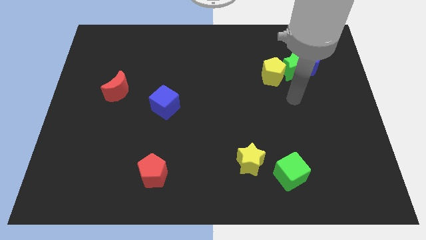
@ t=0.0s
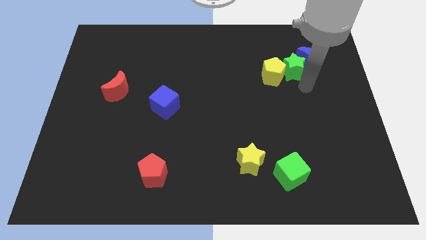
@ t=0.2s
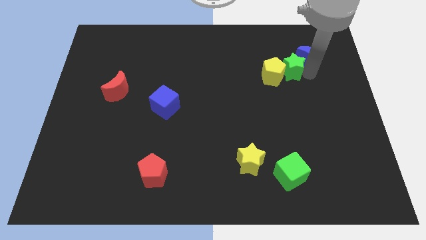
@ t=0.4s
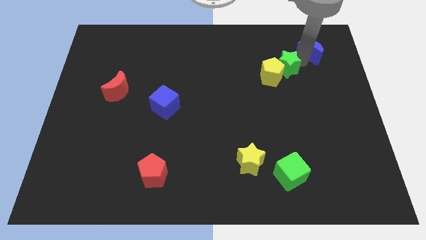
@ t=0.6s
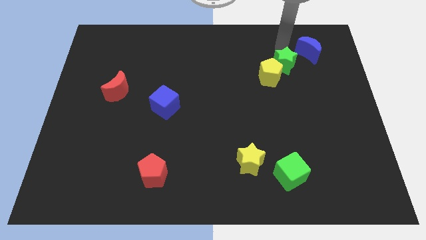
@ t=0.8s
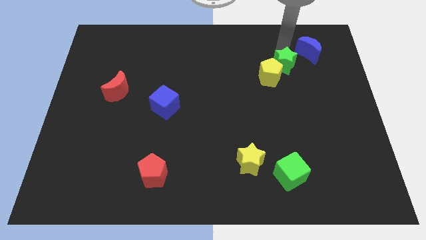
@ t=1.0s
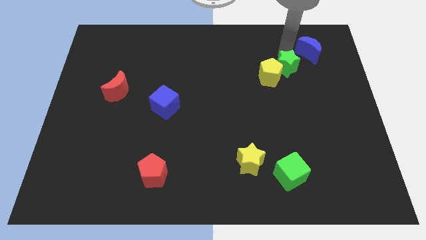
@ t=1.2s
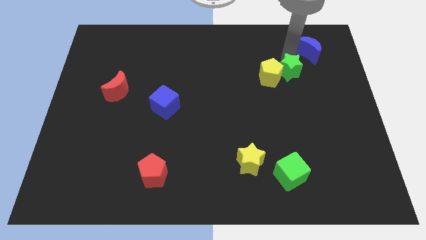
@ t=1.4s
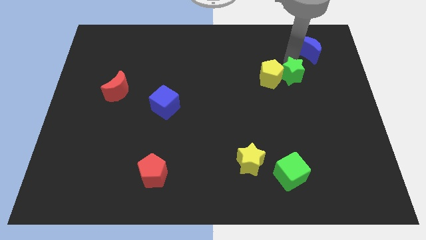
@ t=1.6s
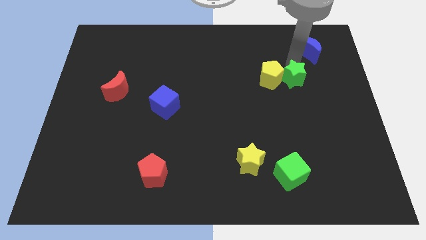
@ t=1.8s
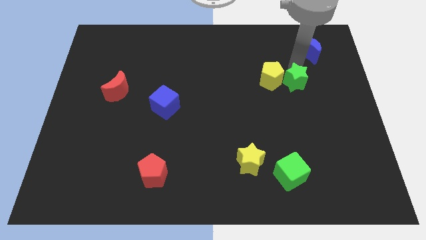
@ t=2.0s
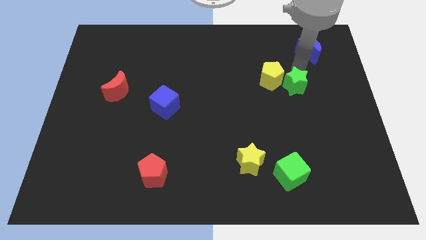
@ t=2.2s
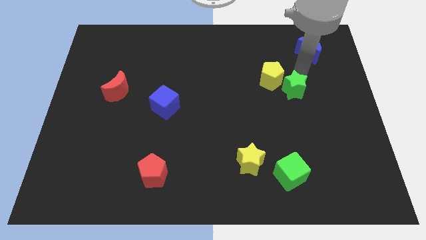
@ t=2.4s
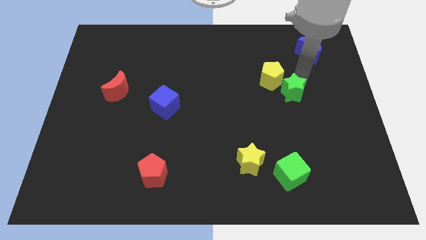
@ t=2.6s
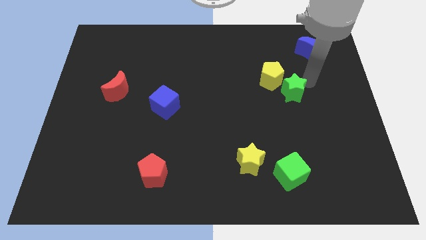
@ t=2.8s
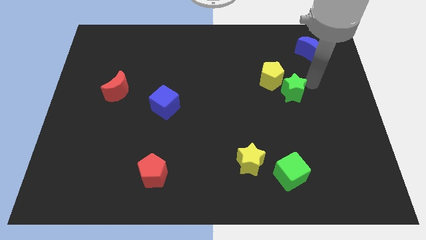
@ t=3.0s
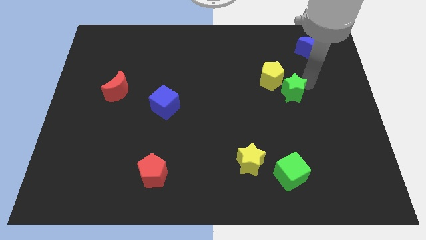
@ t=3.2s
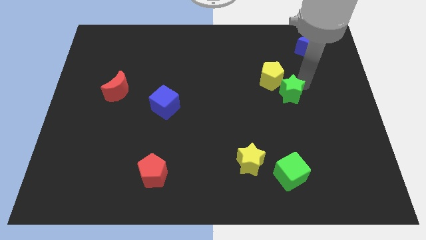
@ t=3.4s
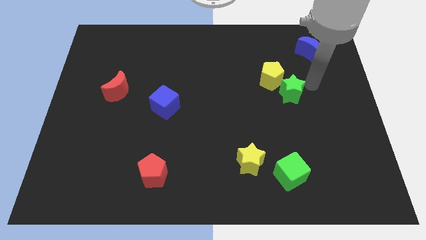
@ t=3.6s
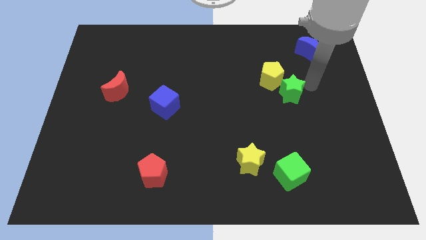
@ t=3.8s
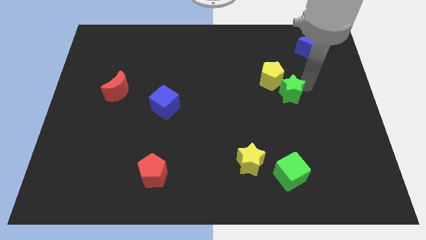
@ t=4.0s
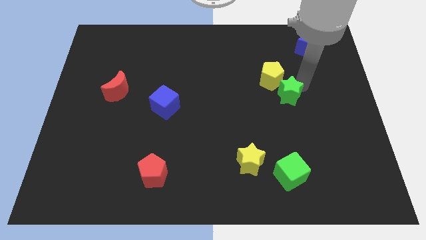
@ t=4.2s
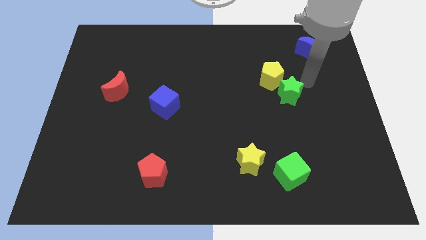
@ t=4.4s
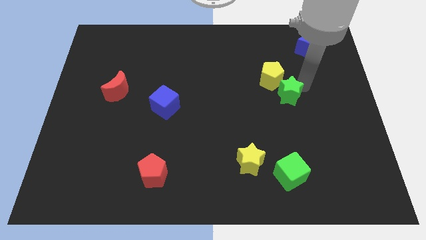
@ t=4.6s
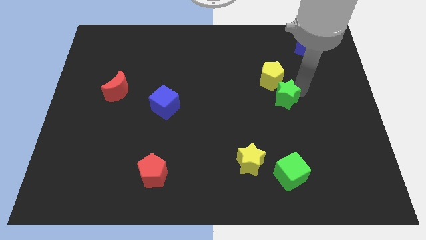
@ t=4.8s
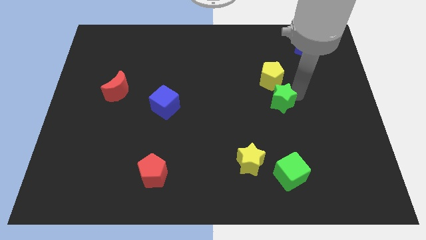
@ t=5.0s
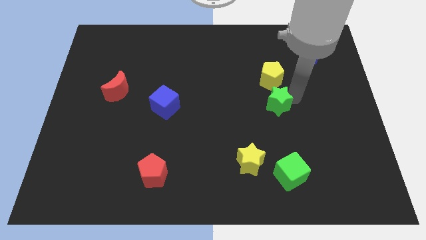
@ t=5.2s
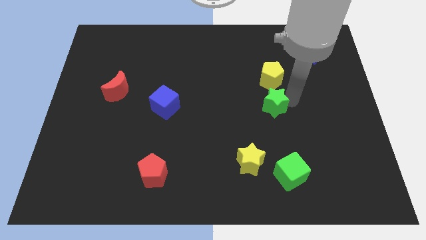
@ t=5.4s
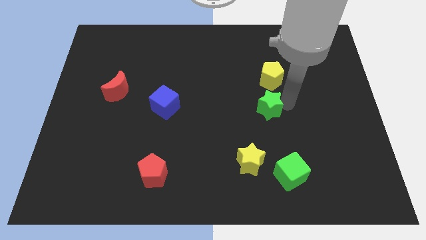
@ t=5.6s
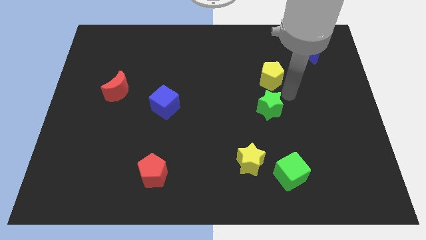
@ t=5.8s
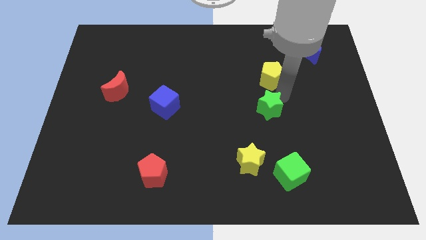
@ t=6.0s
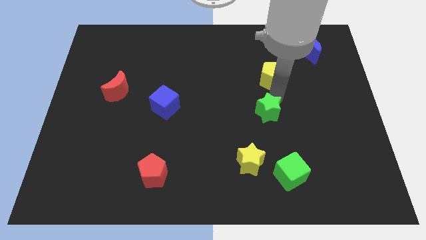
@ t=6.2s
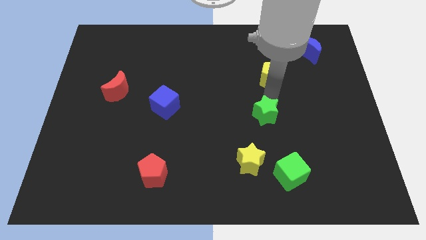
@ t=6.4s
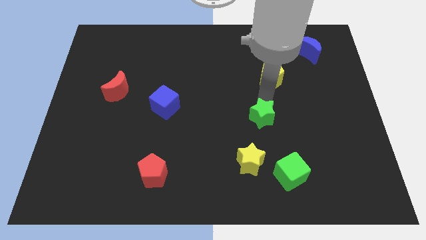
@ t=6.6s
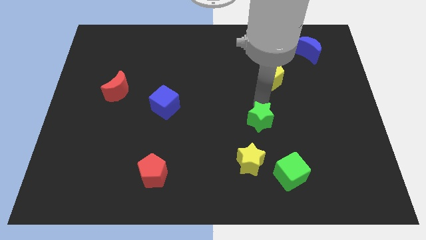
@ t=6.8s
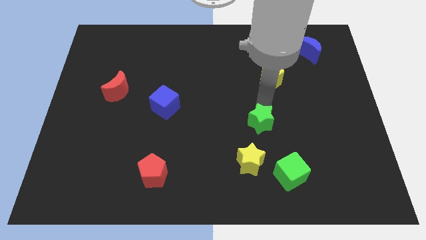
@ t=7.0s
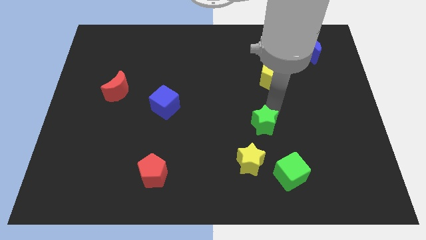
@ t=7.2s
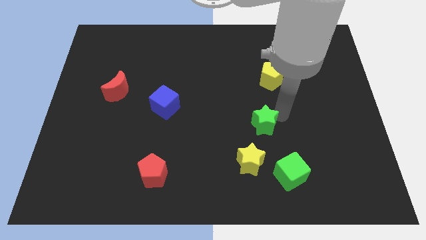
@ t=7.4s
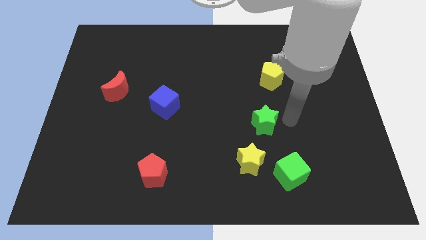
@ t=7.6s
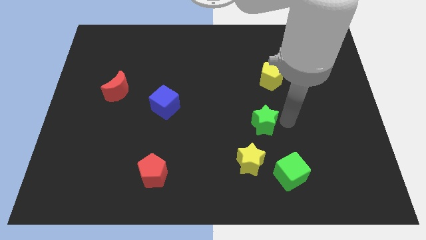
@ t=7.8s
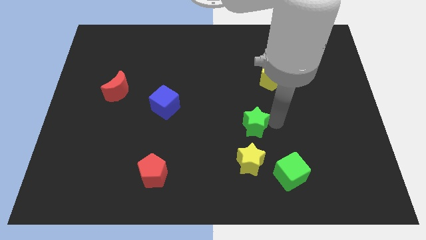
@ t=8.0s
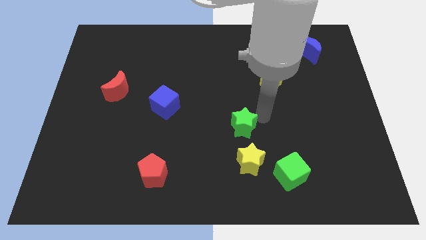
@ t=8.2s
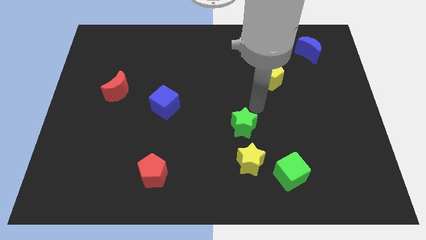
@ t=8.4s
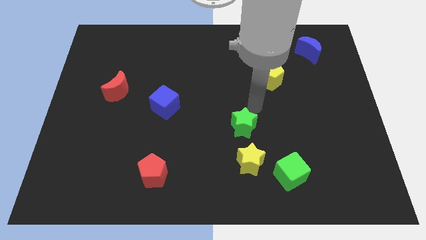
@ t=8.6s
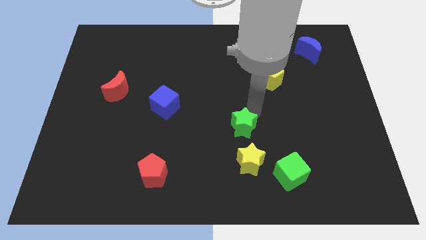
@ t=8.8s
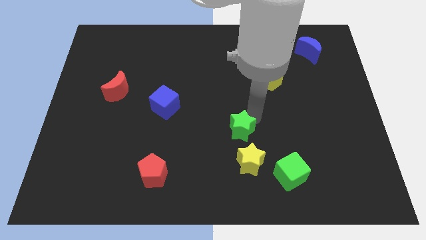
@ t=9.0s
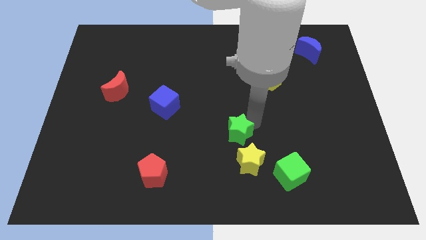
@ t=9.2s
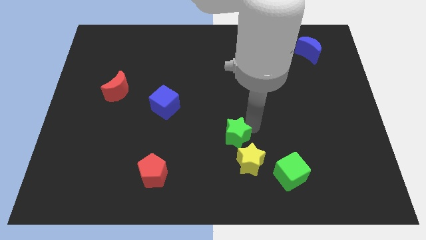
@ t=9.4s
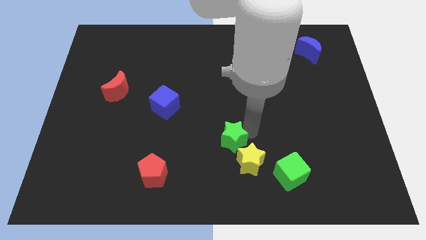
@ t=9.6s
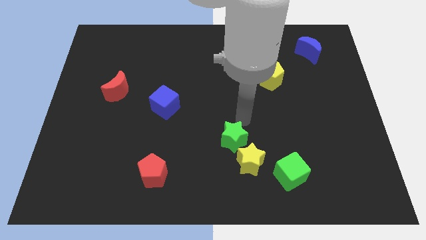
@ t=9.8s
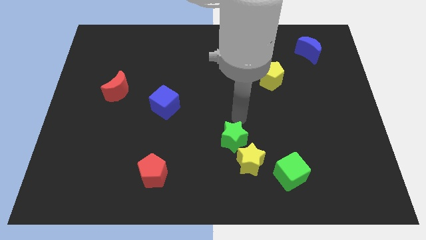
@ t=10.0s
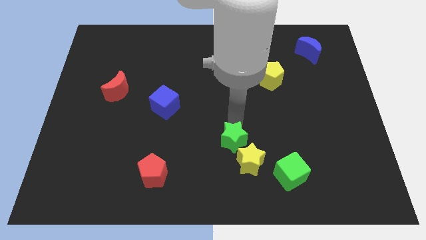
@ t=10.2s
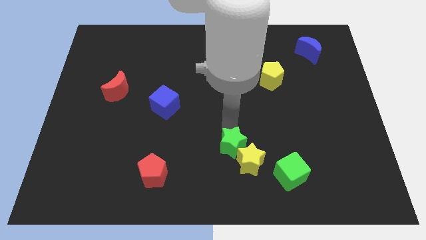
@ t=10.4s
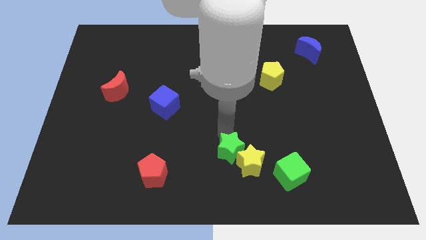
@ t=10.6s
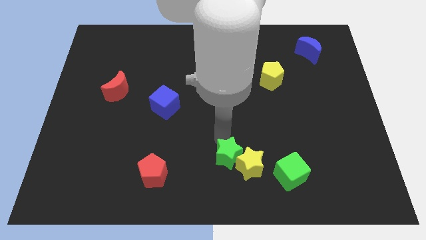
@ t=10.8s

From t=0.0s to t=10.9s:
put the green star to the bottom

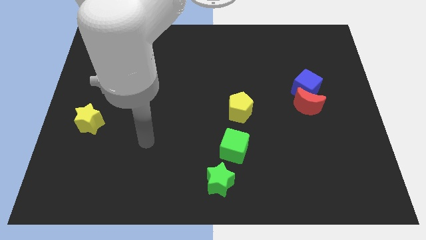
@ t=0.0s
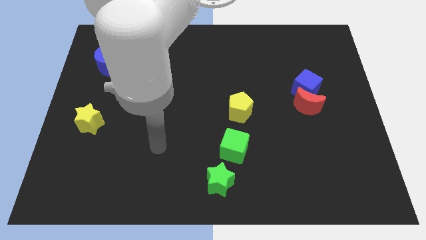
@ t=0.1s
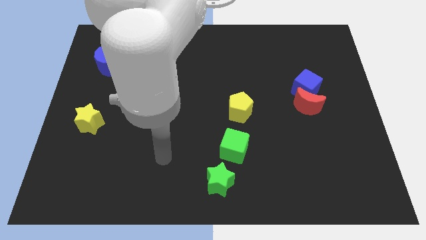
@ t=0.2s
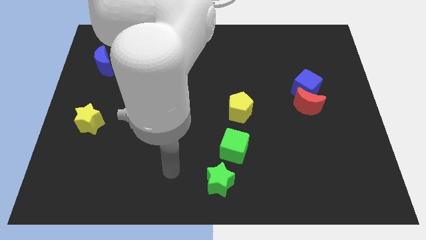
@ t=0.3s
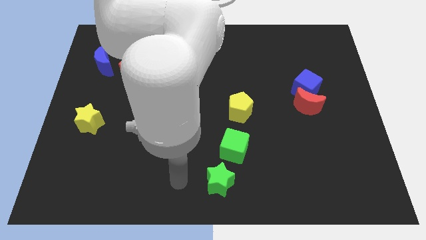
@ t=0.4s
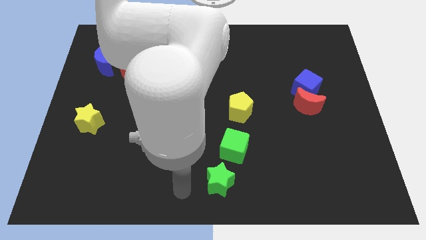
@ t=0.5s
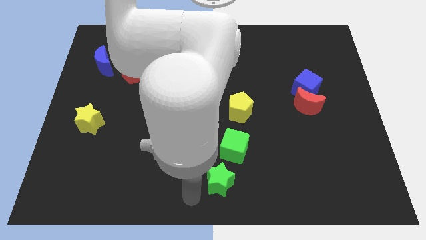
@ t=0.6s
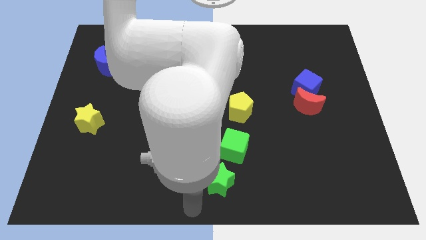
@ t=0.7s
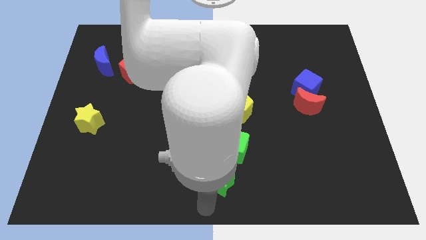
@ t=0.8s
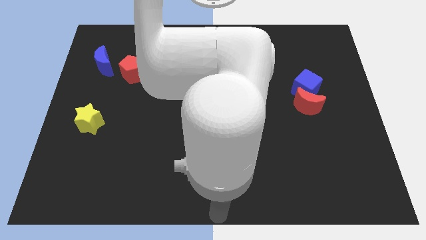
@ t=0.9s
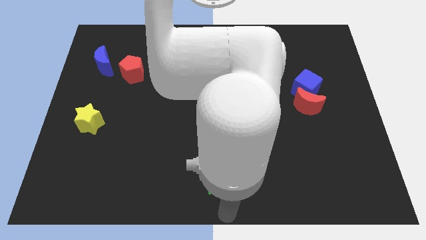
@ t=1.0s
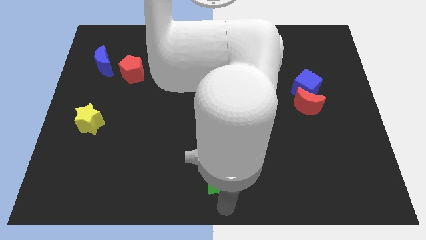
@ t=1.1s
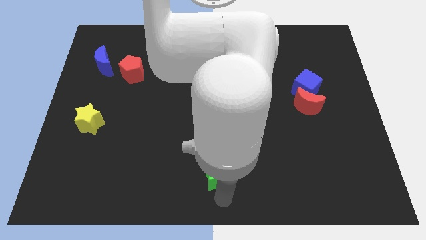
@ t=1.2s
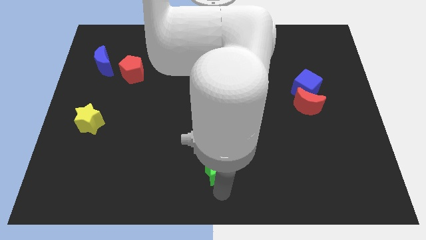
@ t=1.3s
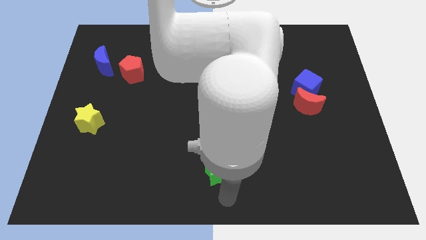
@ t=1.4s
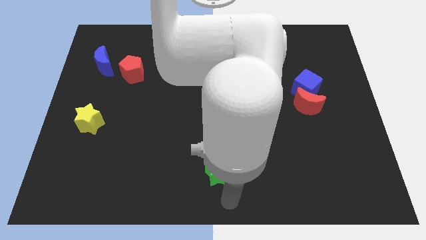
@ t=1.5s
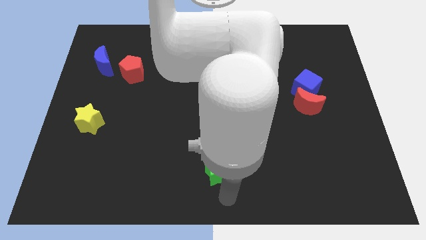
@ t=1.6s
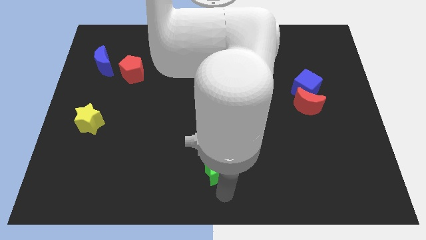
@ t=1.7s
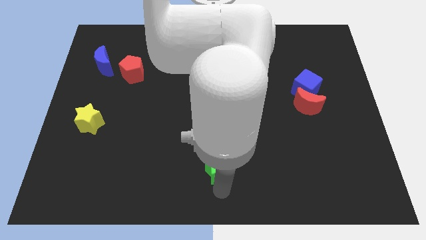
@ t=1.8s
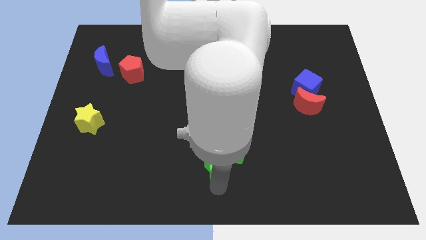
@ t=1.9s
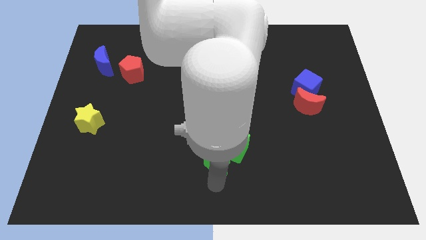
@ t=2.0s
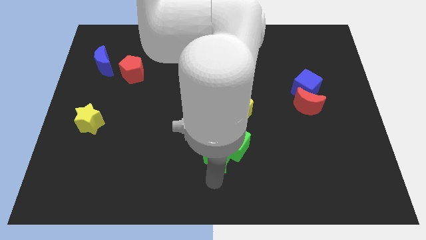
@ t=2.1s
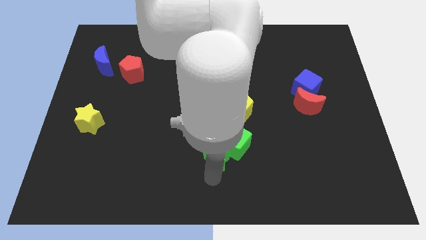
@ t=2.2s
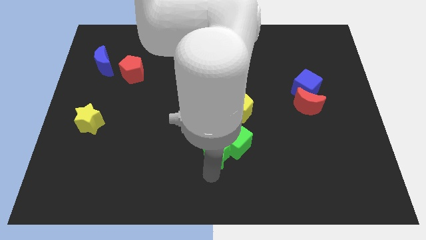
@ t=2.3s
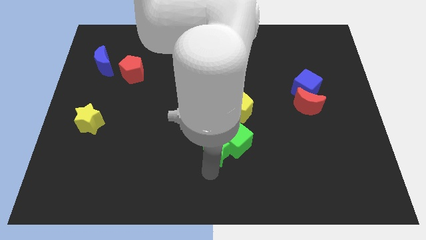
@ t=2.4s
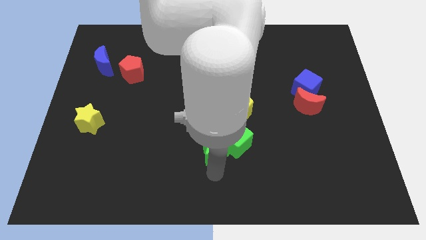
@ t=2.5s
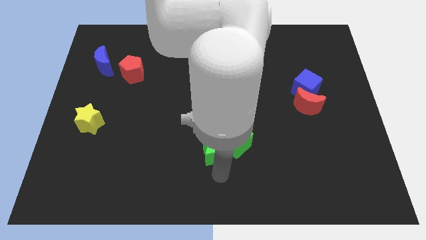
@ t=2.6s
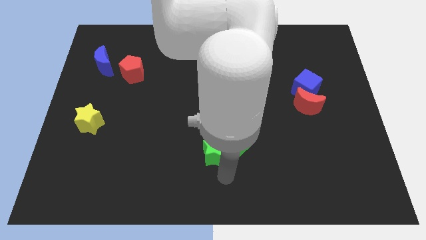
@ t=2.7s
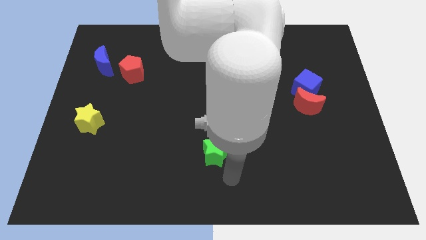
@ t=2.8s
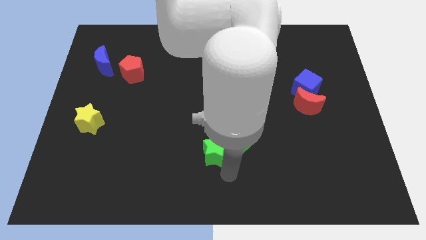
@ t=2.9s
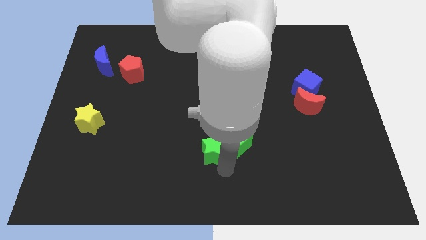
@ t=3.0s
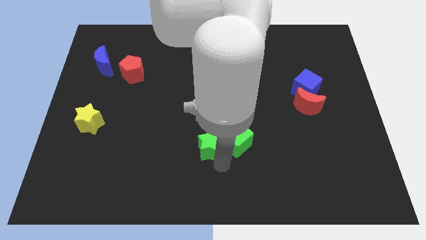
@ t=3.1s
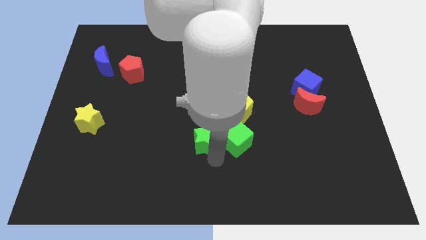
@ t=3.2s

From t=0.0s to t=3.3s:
put the green star to the center
